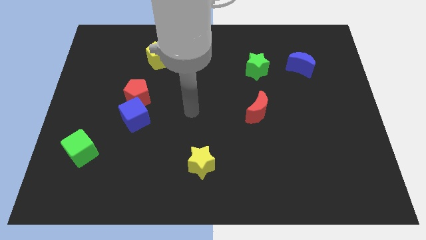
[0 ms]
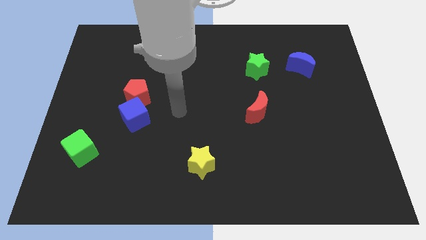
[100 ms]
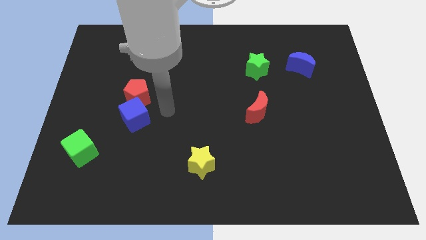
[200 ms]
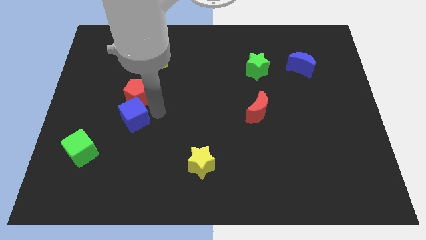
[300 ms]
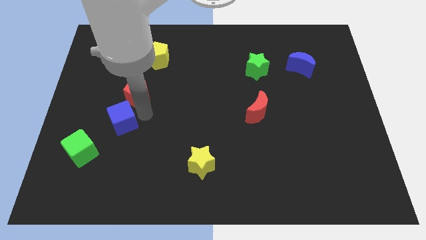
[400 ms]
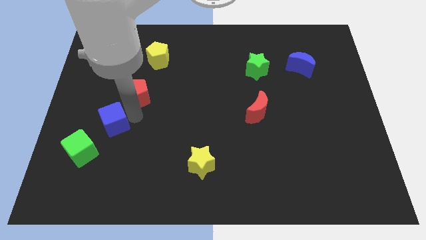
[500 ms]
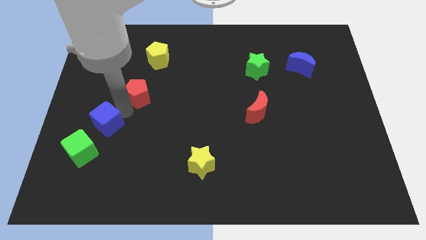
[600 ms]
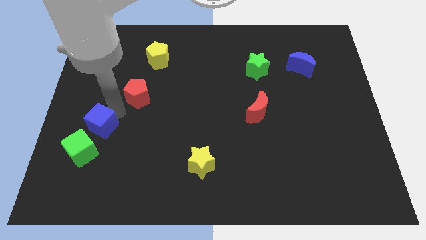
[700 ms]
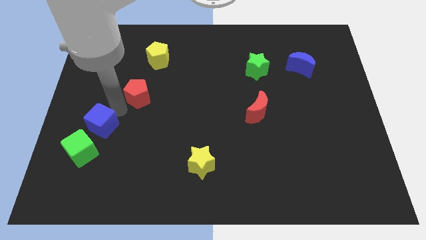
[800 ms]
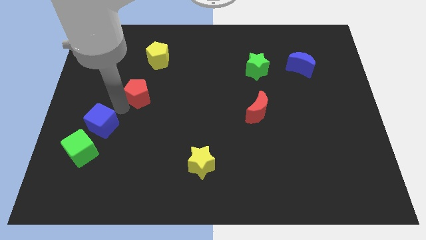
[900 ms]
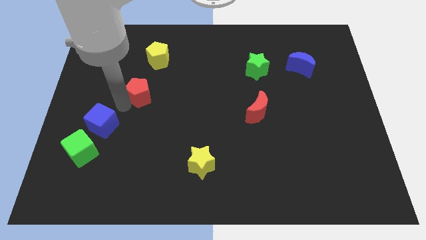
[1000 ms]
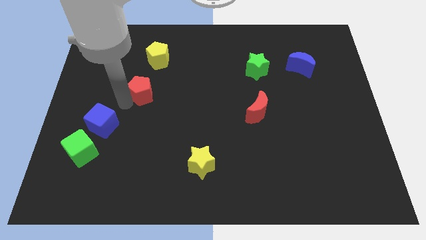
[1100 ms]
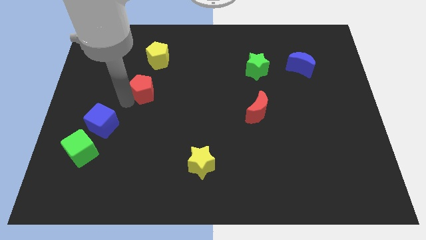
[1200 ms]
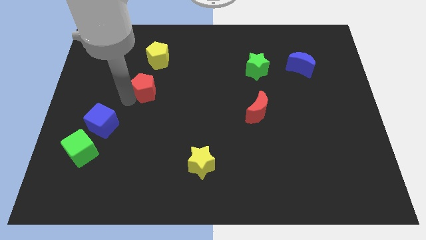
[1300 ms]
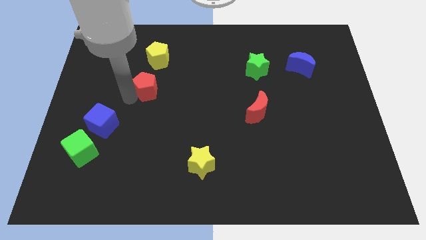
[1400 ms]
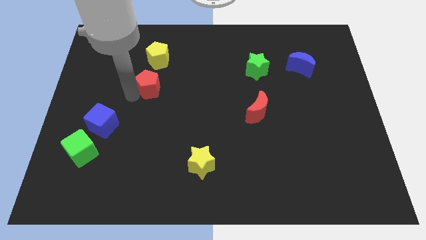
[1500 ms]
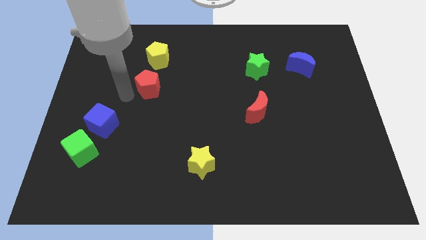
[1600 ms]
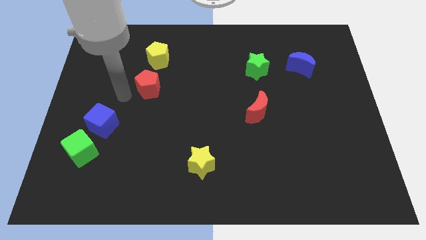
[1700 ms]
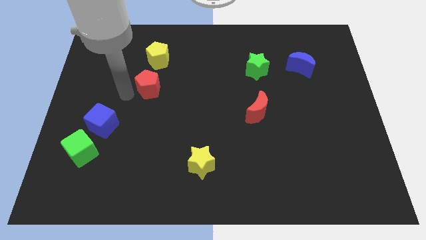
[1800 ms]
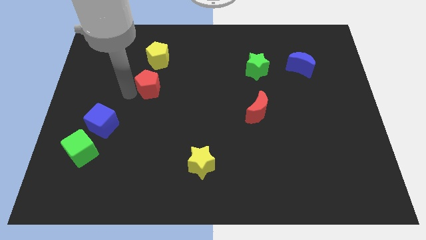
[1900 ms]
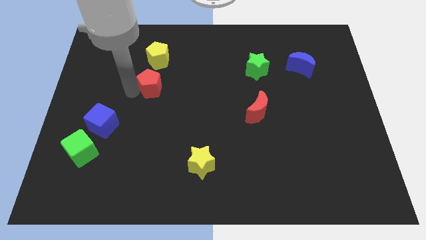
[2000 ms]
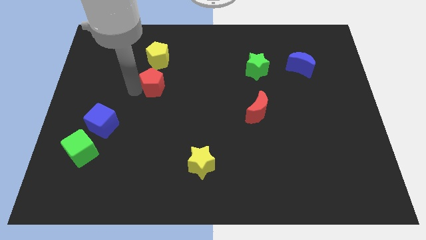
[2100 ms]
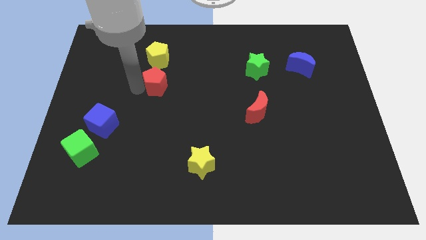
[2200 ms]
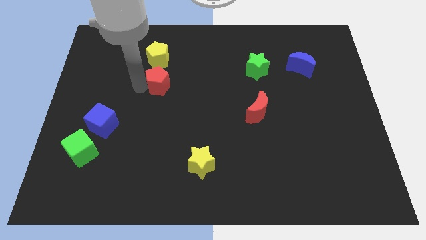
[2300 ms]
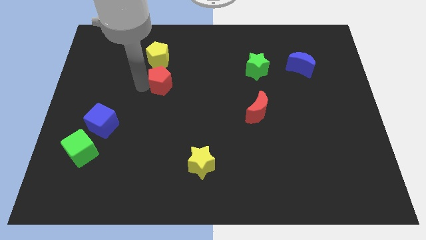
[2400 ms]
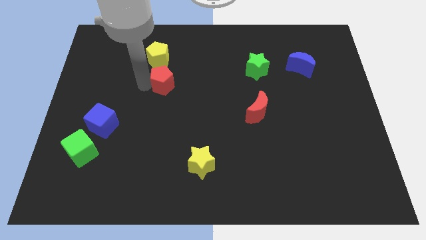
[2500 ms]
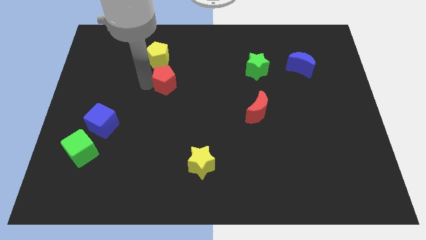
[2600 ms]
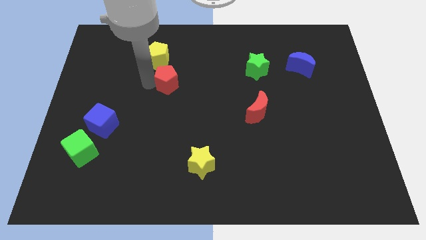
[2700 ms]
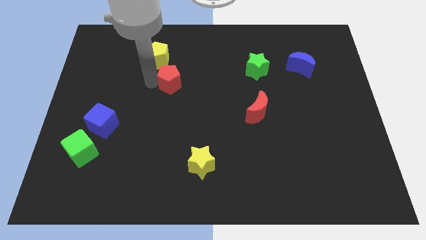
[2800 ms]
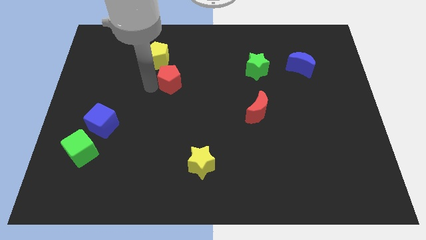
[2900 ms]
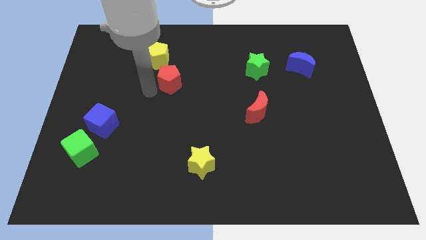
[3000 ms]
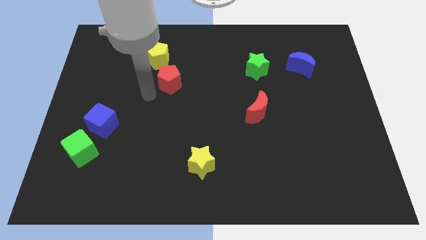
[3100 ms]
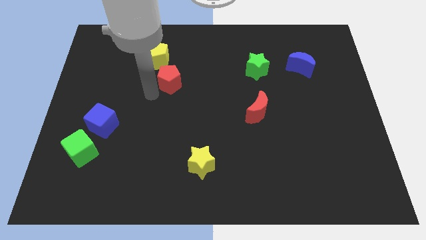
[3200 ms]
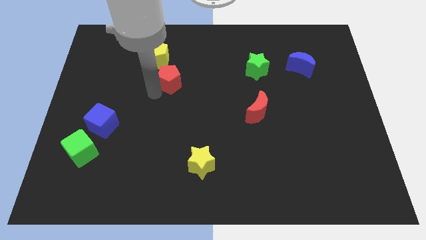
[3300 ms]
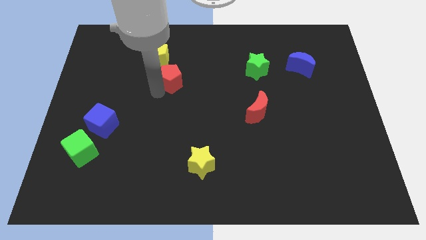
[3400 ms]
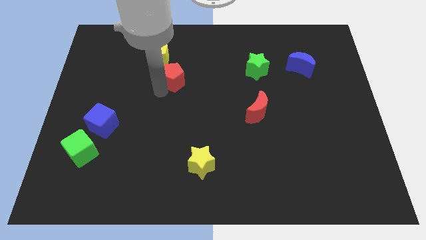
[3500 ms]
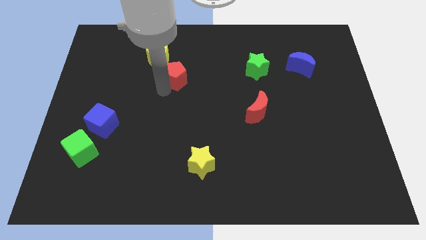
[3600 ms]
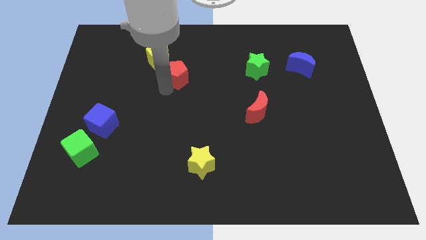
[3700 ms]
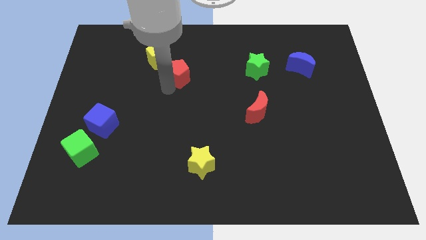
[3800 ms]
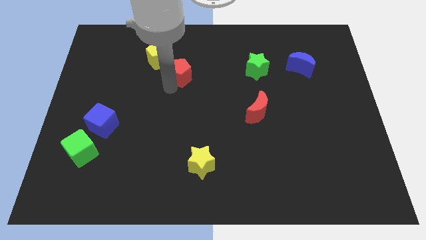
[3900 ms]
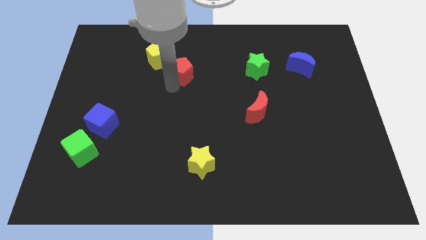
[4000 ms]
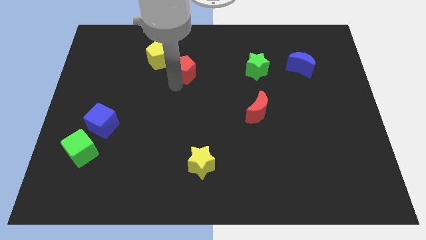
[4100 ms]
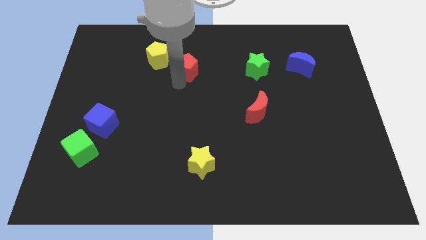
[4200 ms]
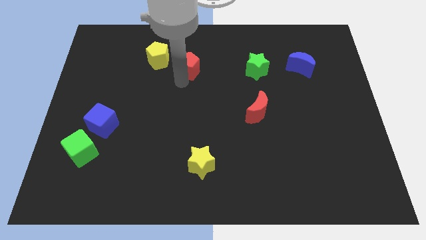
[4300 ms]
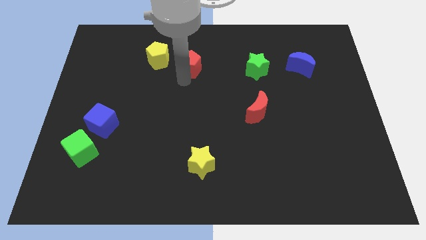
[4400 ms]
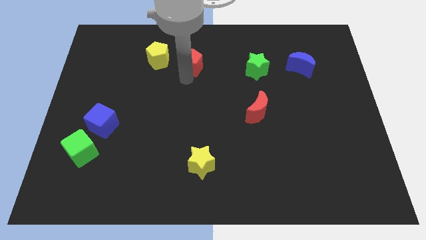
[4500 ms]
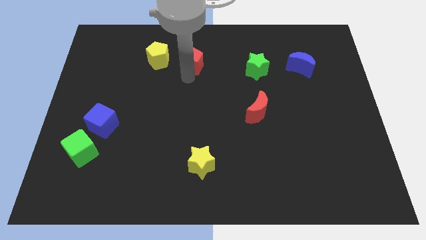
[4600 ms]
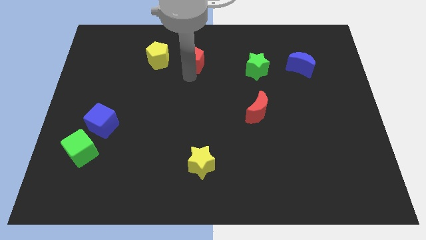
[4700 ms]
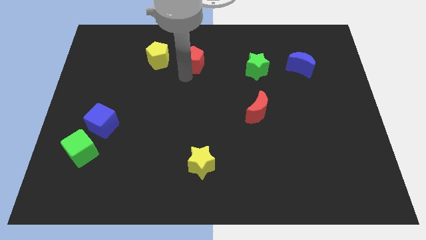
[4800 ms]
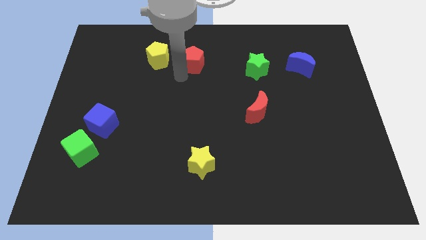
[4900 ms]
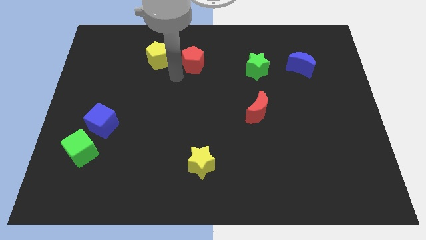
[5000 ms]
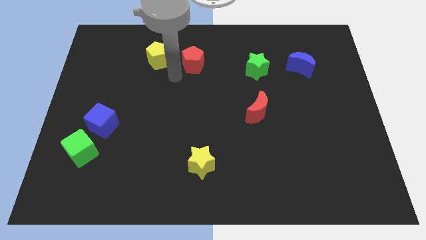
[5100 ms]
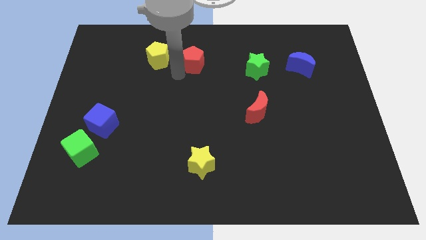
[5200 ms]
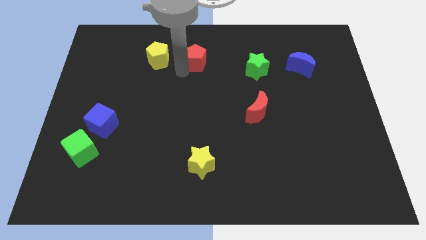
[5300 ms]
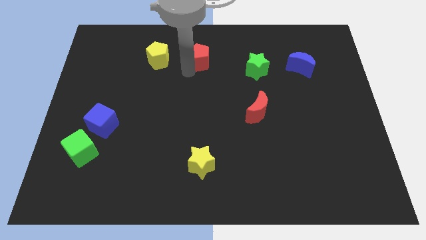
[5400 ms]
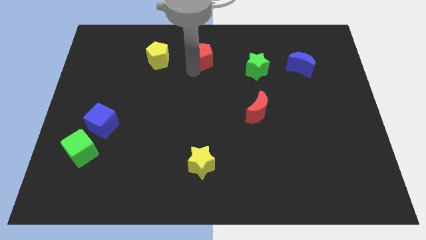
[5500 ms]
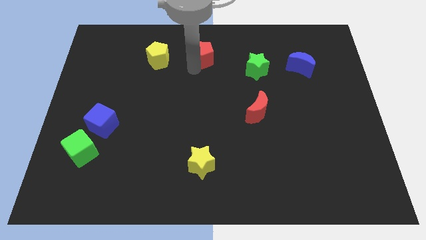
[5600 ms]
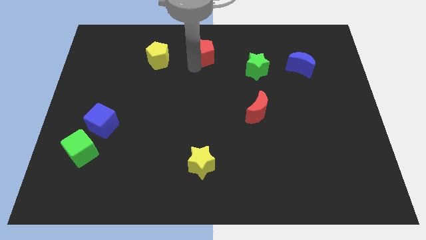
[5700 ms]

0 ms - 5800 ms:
put the red pentagon to the top
